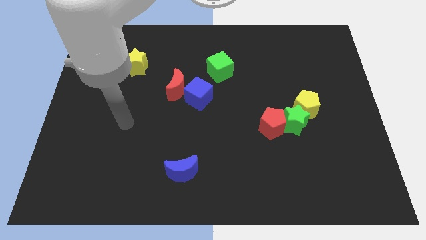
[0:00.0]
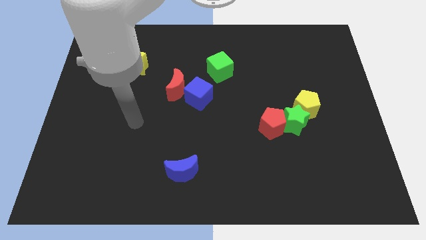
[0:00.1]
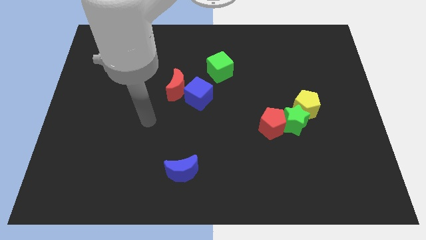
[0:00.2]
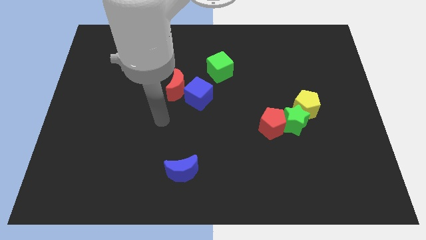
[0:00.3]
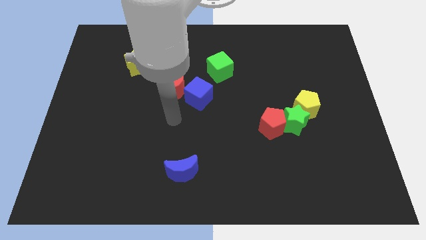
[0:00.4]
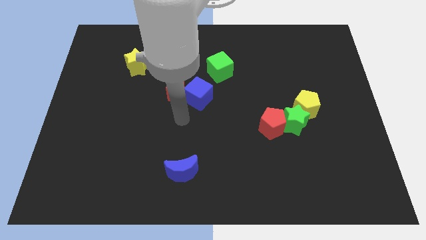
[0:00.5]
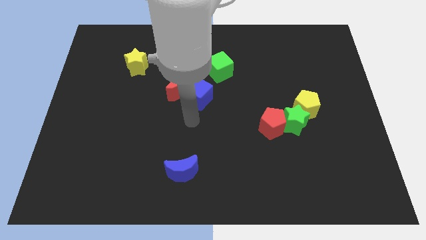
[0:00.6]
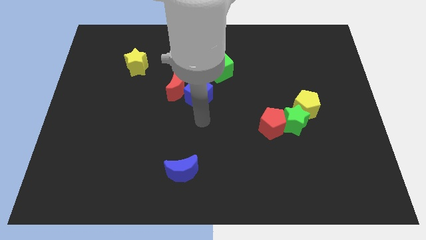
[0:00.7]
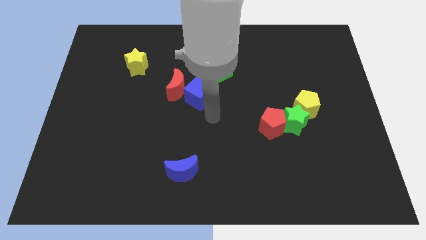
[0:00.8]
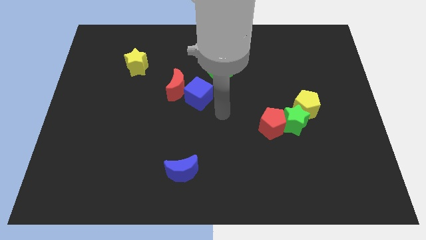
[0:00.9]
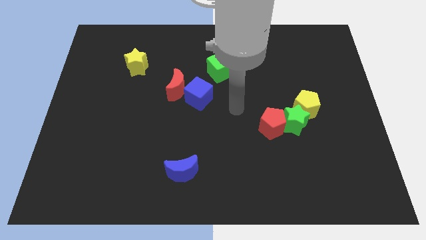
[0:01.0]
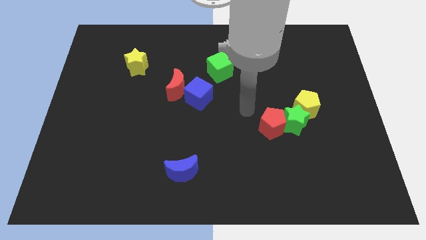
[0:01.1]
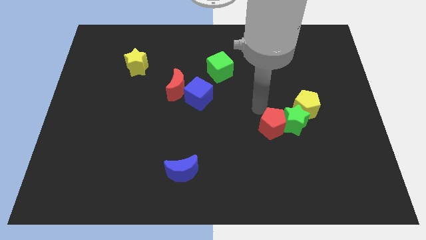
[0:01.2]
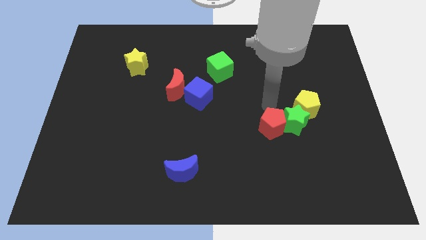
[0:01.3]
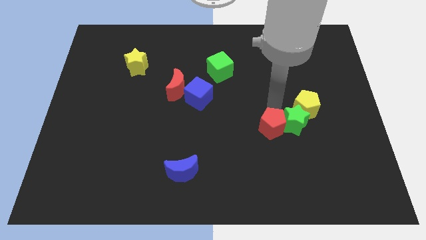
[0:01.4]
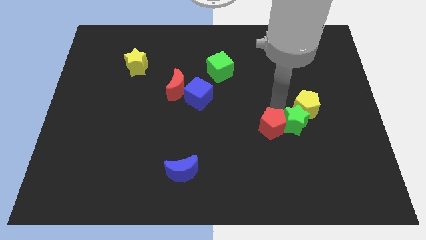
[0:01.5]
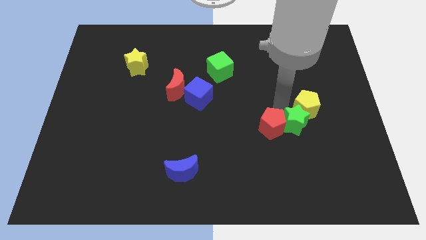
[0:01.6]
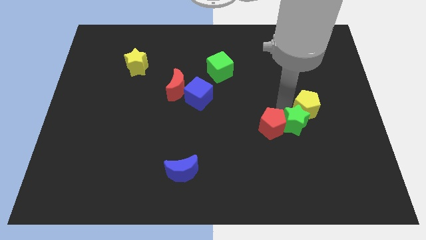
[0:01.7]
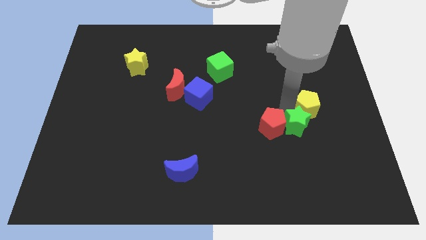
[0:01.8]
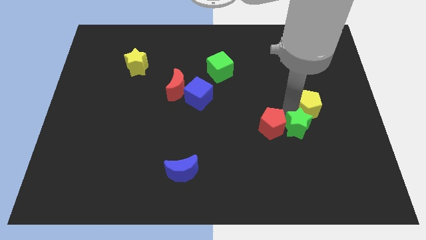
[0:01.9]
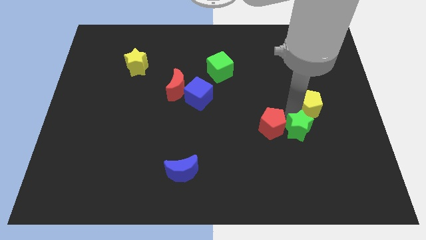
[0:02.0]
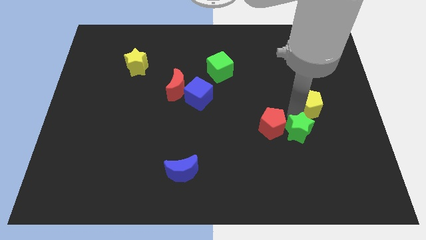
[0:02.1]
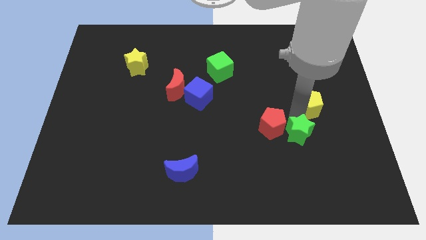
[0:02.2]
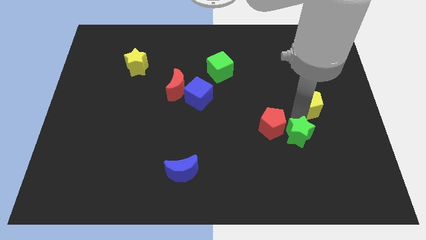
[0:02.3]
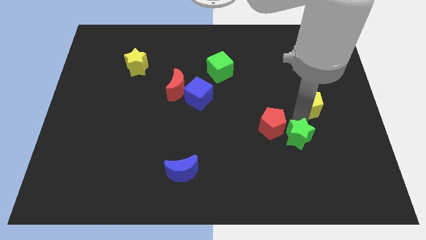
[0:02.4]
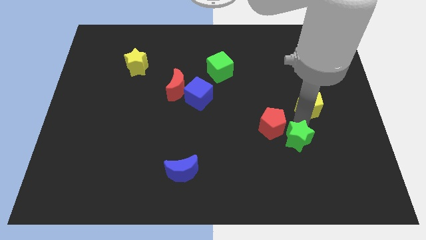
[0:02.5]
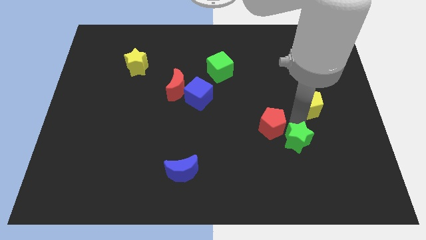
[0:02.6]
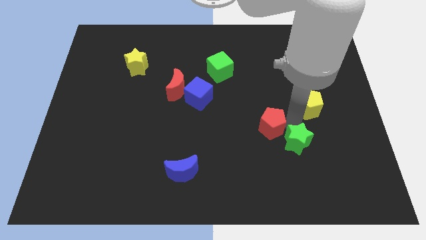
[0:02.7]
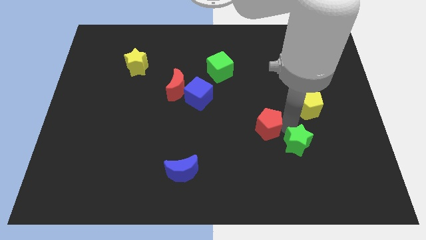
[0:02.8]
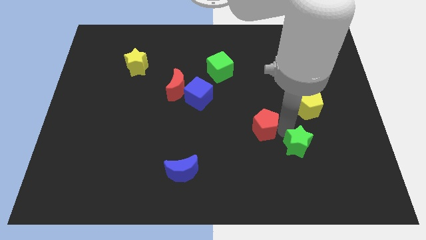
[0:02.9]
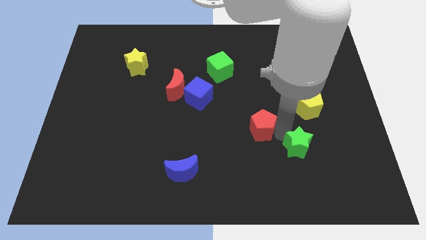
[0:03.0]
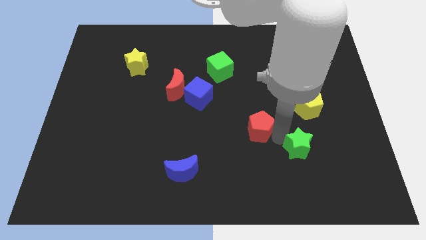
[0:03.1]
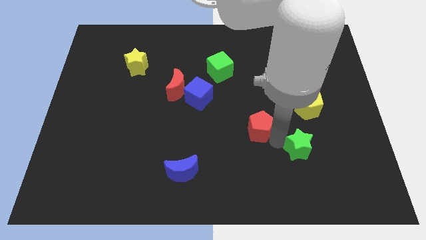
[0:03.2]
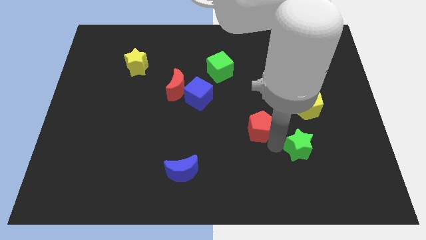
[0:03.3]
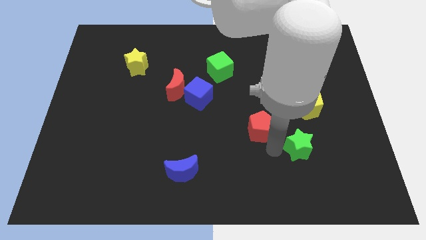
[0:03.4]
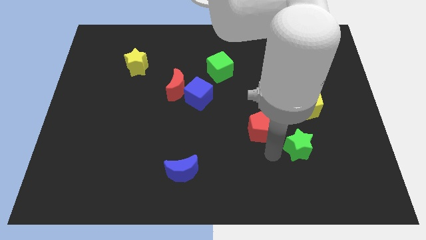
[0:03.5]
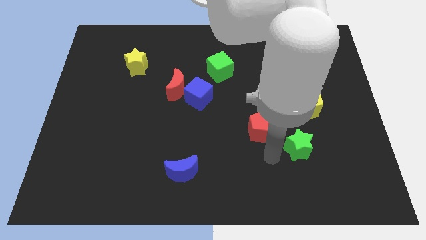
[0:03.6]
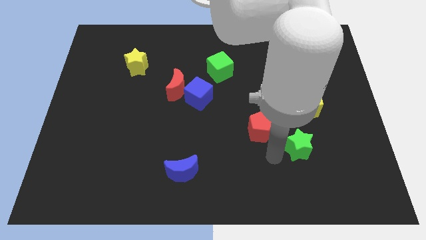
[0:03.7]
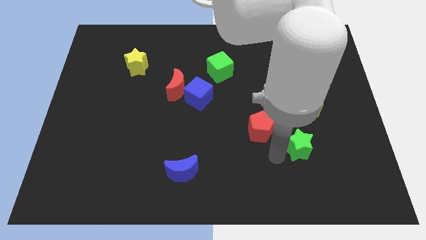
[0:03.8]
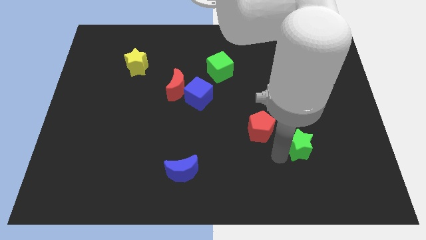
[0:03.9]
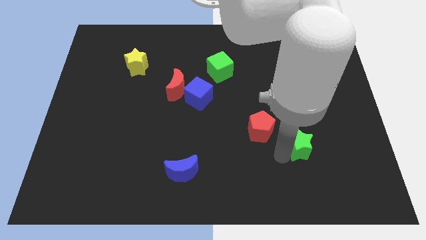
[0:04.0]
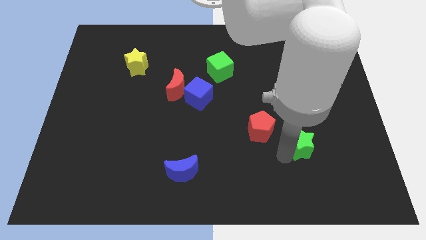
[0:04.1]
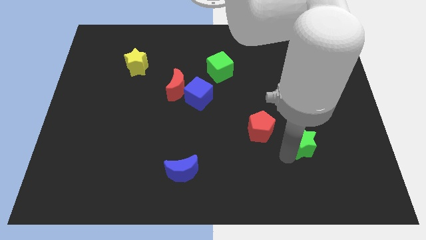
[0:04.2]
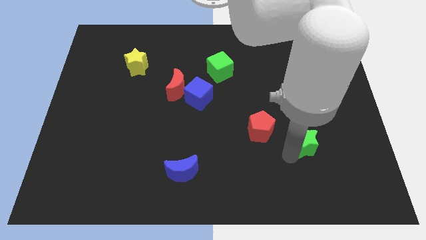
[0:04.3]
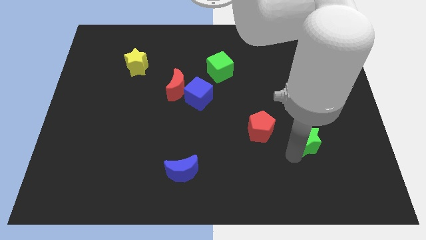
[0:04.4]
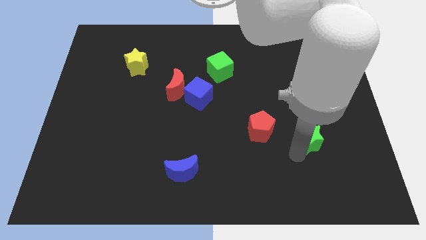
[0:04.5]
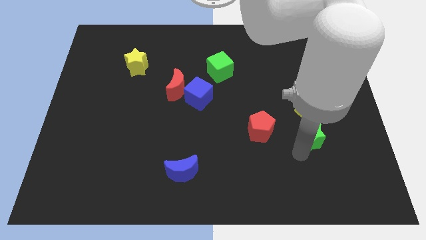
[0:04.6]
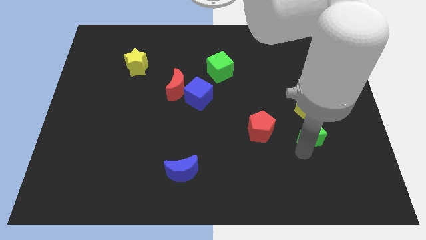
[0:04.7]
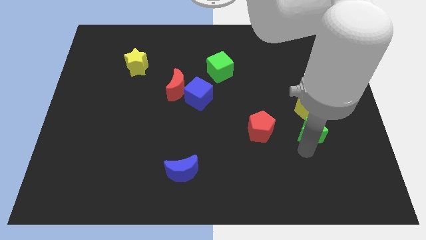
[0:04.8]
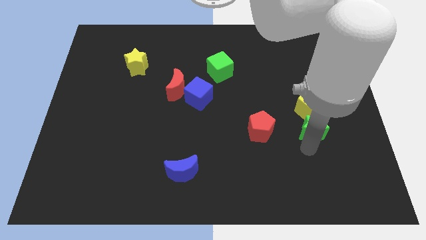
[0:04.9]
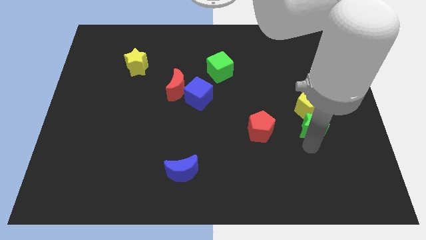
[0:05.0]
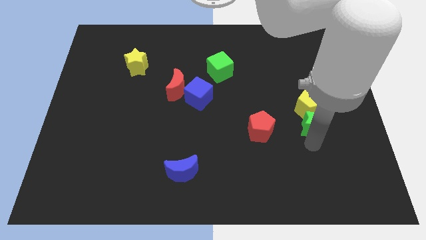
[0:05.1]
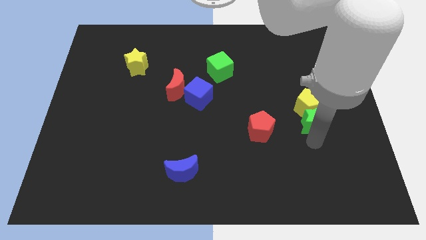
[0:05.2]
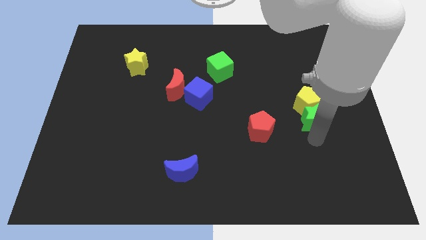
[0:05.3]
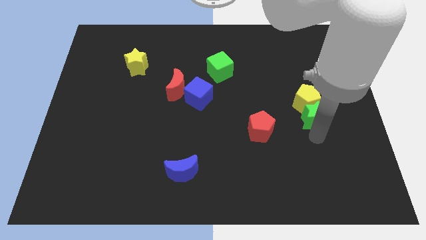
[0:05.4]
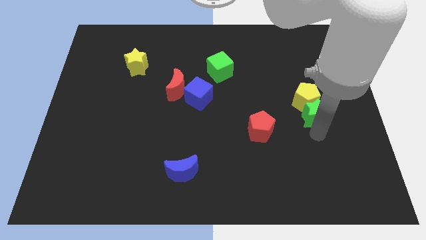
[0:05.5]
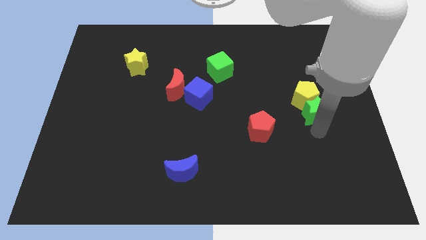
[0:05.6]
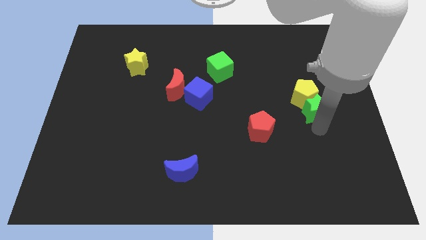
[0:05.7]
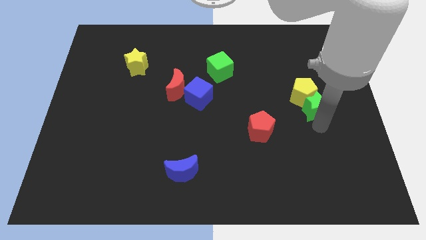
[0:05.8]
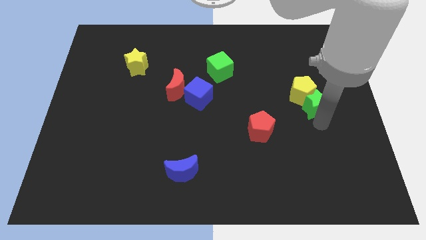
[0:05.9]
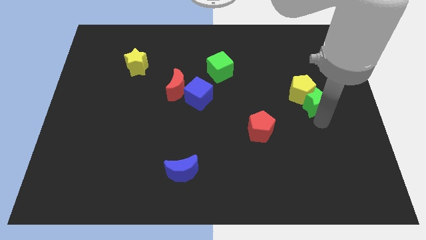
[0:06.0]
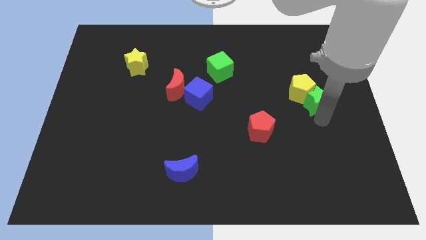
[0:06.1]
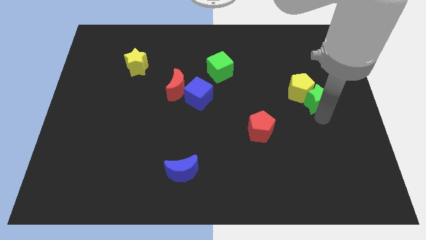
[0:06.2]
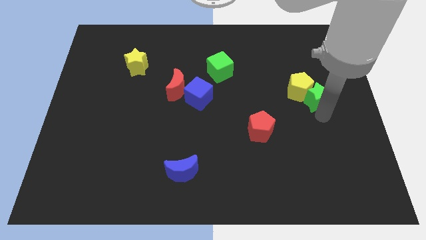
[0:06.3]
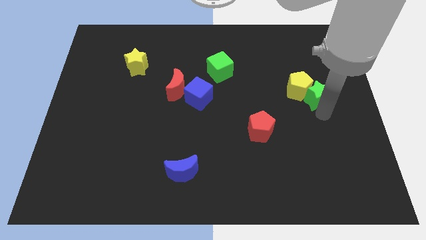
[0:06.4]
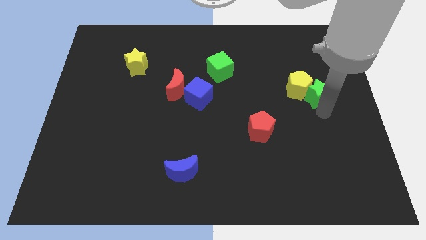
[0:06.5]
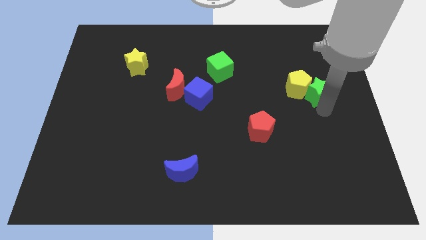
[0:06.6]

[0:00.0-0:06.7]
separate the green star from the yellow pentagon and red pentagon

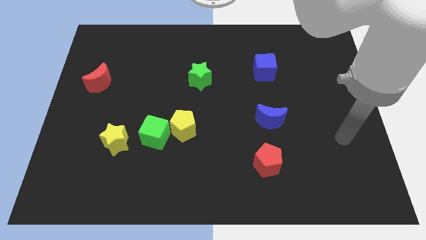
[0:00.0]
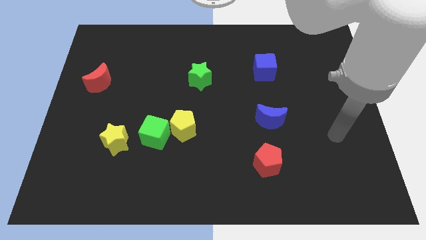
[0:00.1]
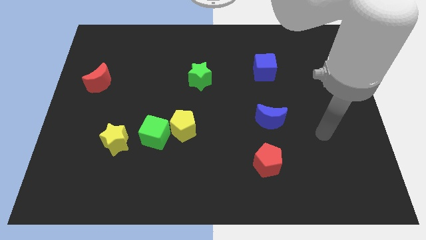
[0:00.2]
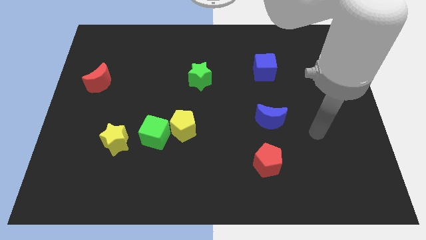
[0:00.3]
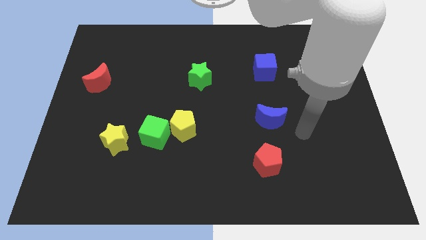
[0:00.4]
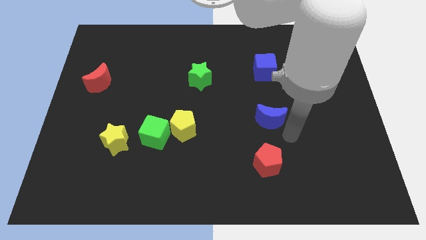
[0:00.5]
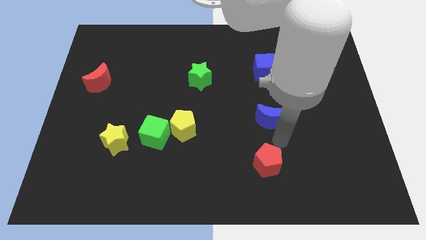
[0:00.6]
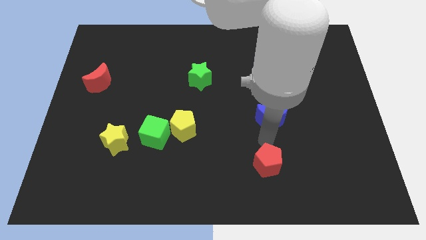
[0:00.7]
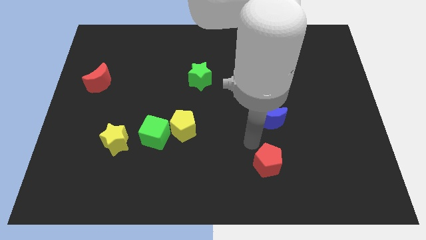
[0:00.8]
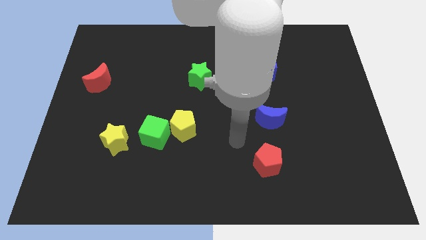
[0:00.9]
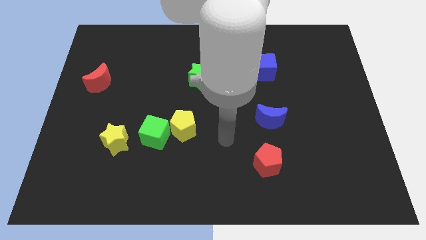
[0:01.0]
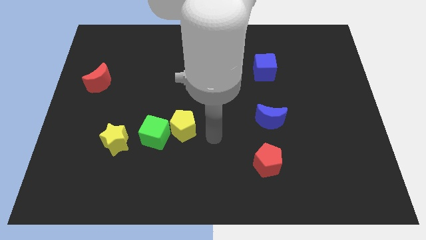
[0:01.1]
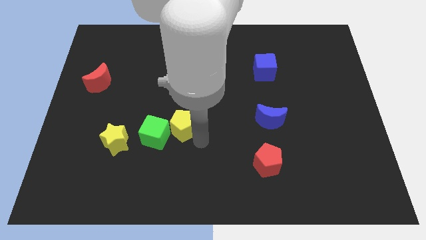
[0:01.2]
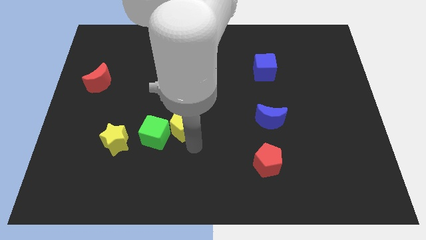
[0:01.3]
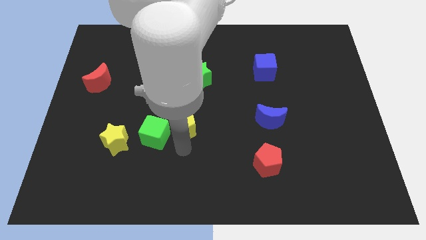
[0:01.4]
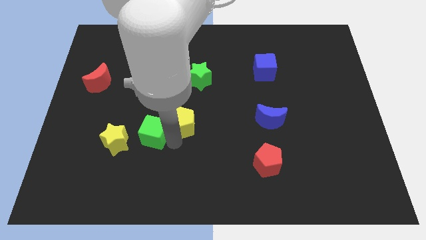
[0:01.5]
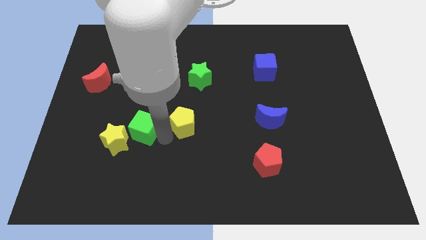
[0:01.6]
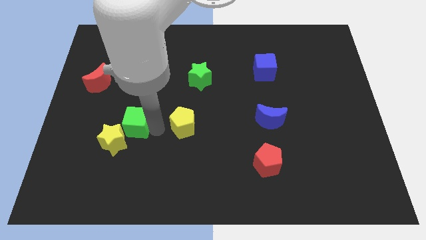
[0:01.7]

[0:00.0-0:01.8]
separate the yellow pentagon from the green cube

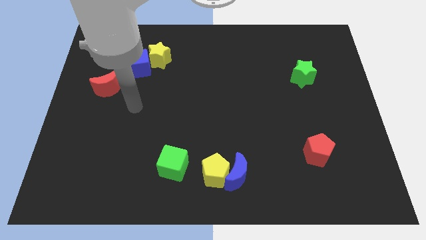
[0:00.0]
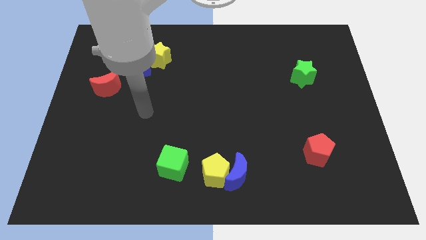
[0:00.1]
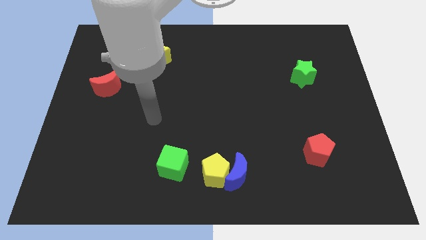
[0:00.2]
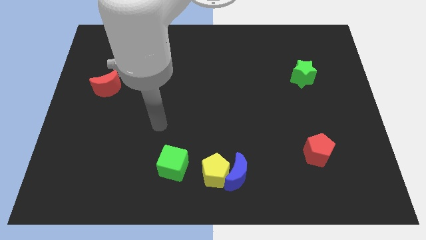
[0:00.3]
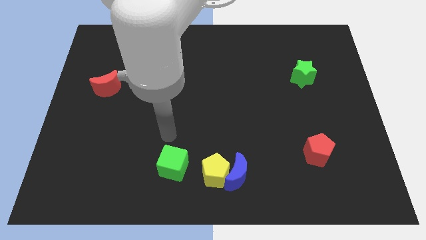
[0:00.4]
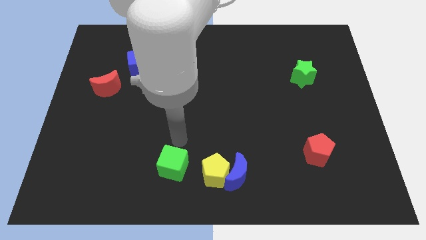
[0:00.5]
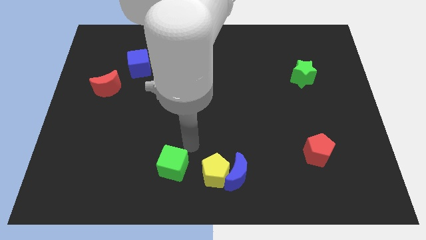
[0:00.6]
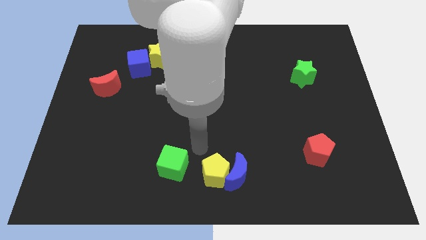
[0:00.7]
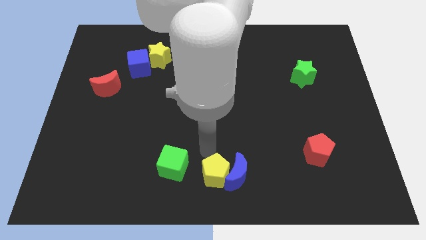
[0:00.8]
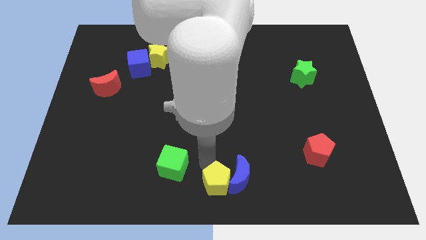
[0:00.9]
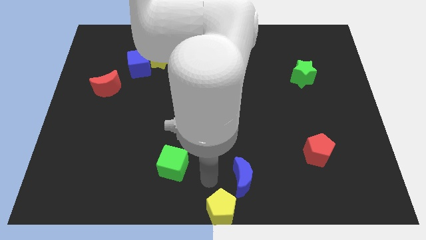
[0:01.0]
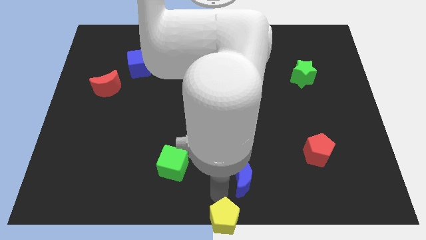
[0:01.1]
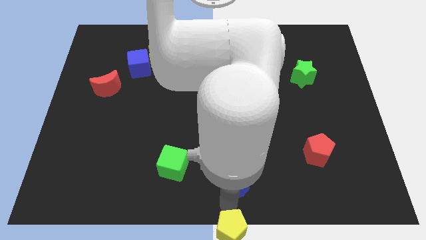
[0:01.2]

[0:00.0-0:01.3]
pull the blue moon apart from the yellow pentagon
